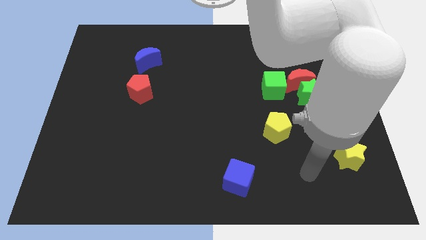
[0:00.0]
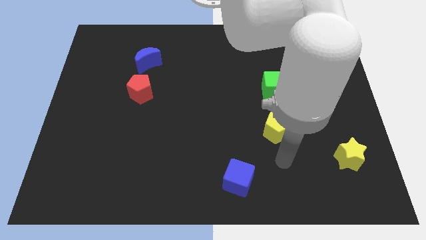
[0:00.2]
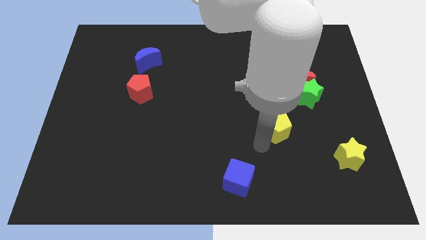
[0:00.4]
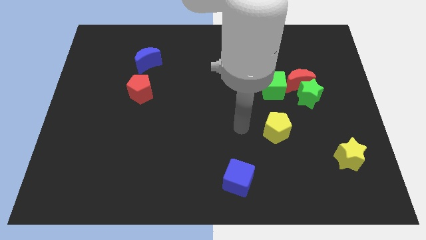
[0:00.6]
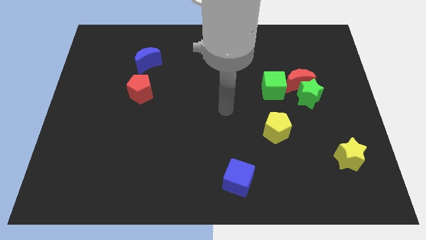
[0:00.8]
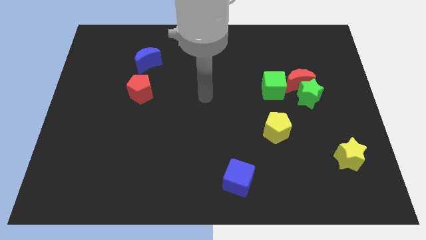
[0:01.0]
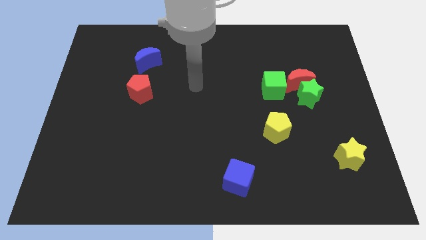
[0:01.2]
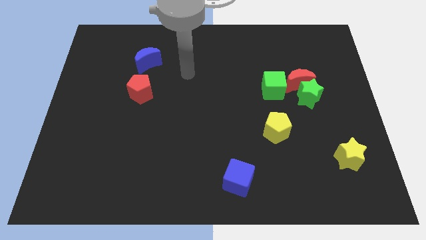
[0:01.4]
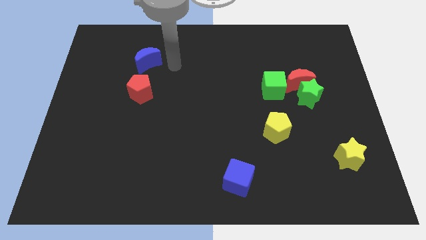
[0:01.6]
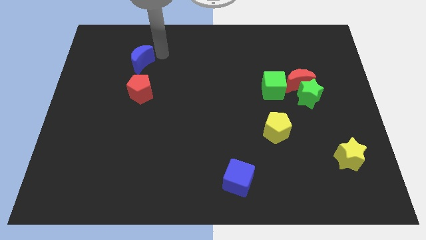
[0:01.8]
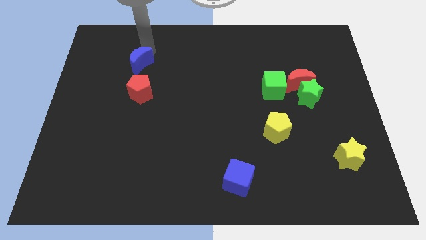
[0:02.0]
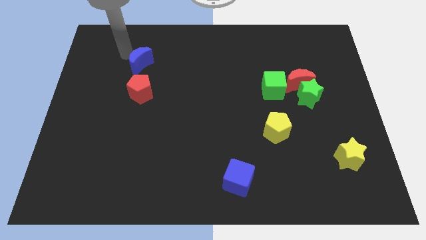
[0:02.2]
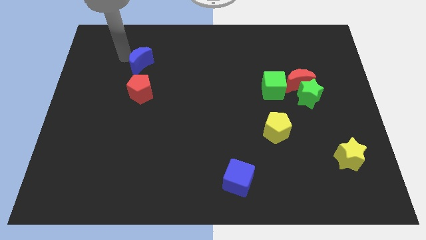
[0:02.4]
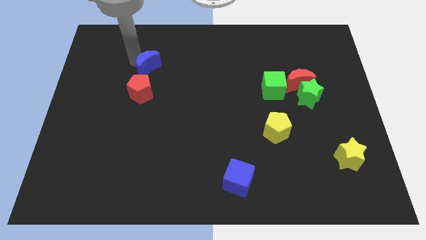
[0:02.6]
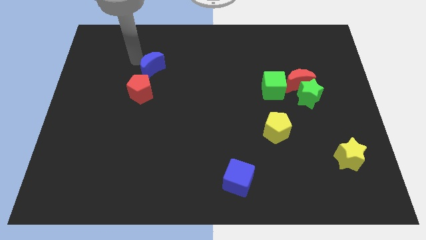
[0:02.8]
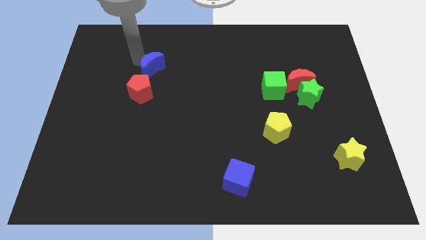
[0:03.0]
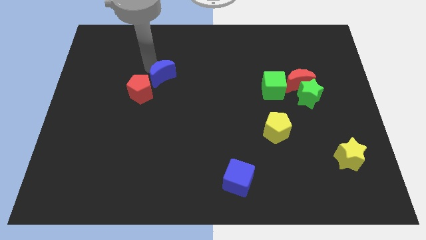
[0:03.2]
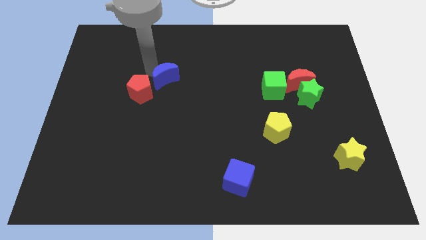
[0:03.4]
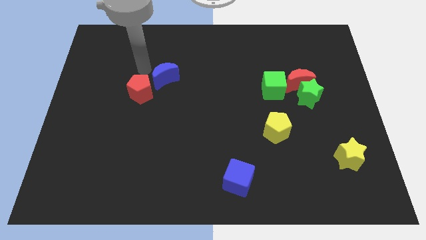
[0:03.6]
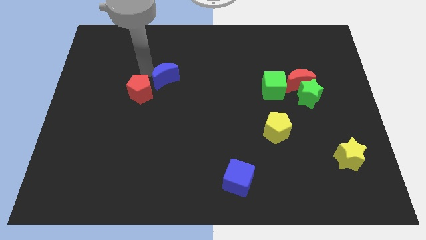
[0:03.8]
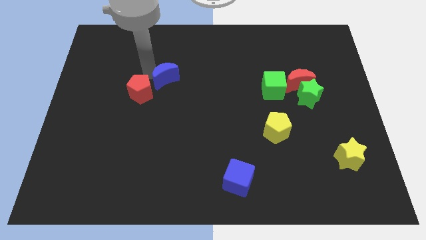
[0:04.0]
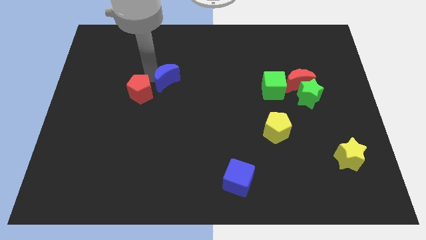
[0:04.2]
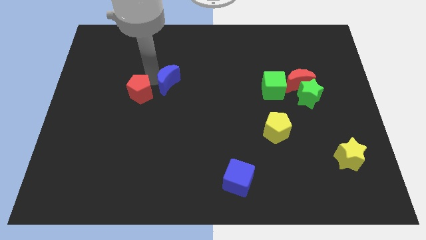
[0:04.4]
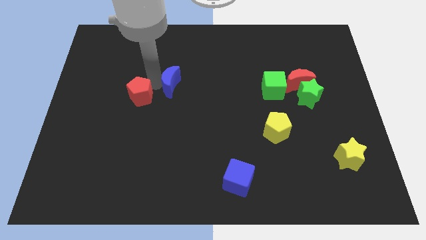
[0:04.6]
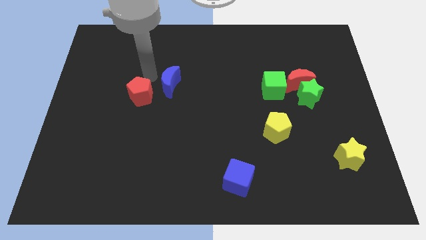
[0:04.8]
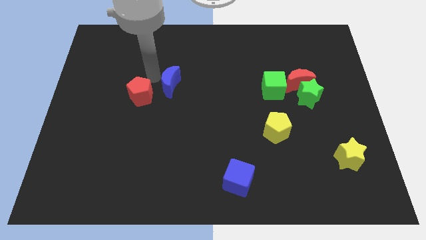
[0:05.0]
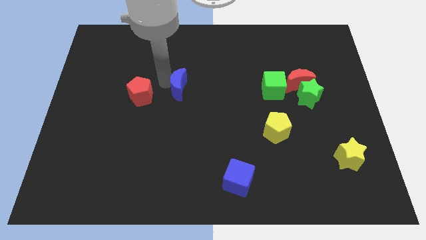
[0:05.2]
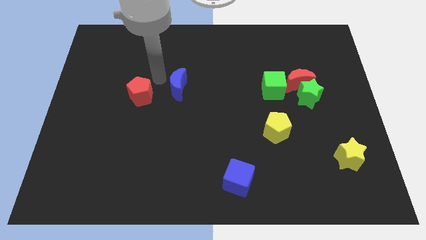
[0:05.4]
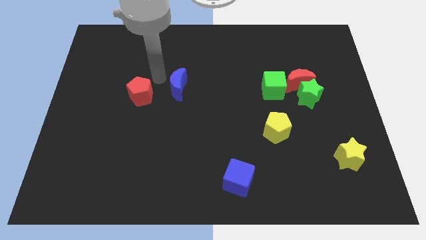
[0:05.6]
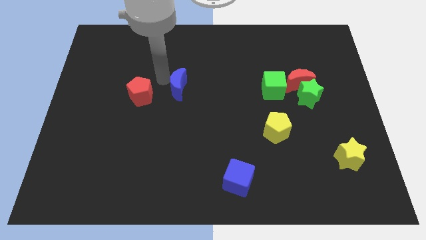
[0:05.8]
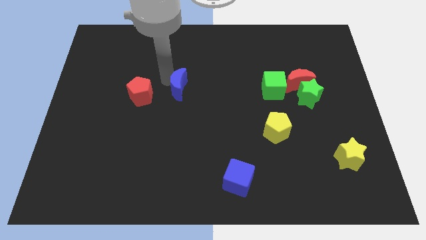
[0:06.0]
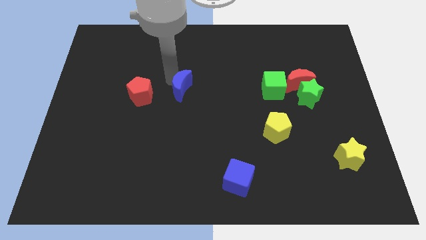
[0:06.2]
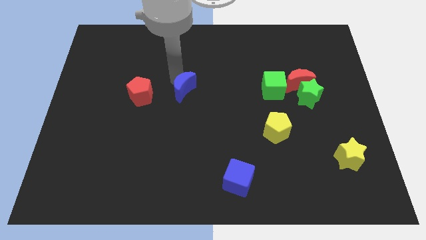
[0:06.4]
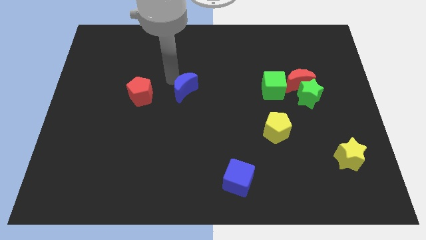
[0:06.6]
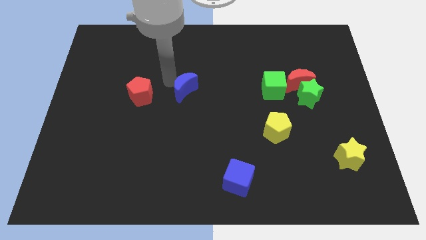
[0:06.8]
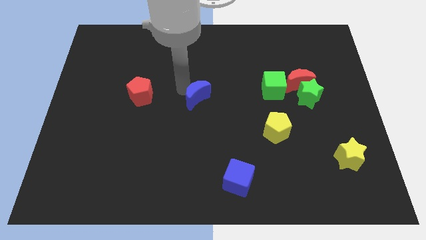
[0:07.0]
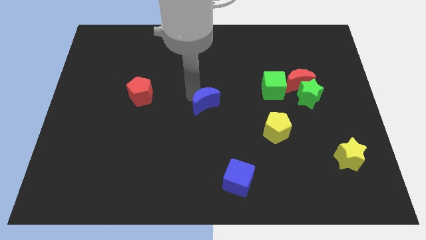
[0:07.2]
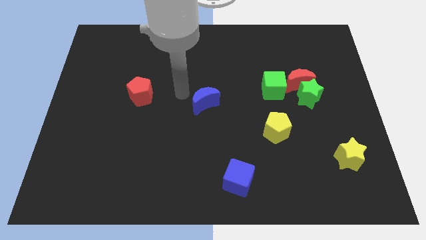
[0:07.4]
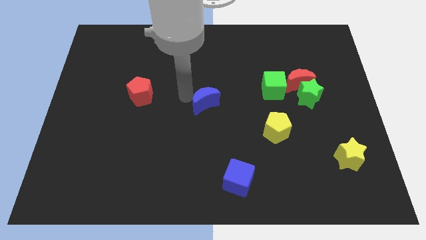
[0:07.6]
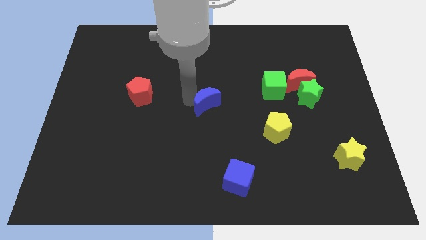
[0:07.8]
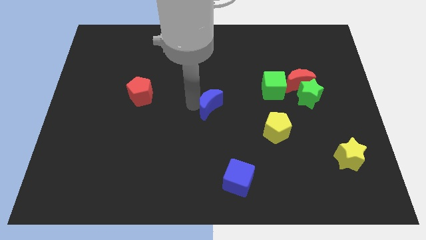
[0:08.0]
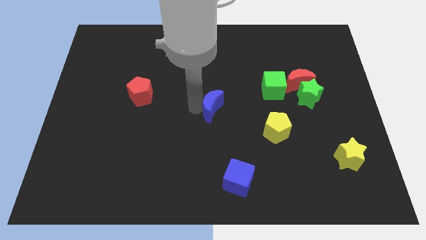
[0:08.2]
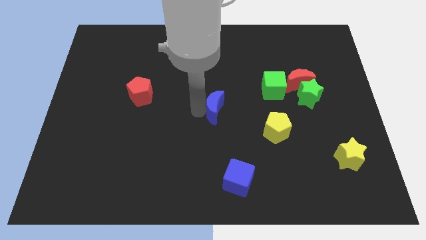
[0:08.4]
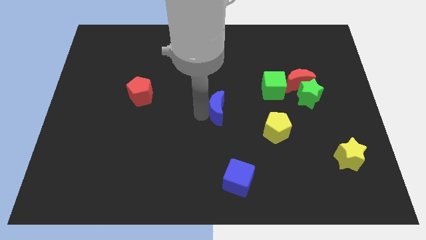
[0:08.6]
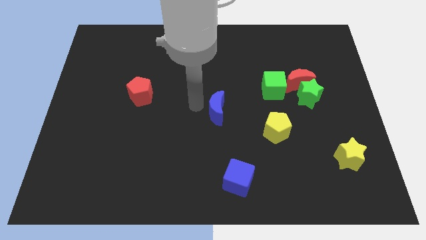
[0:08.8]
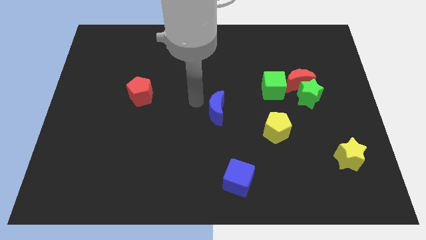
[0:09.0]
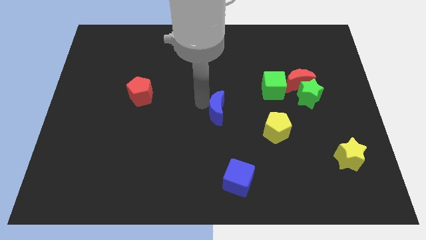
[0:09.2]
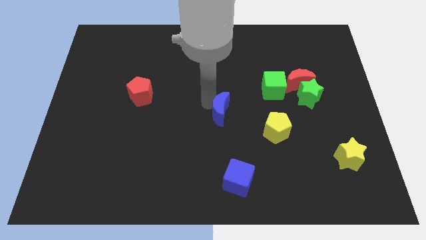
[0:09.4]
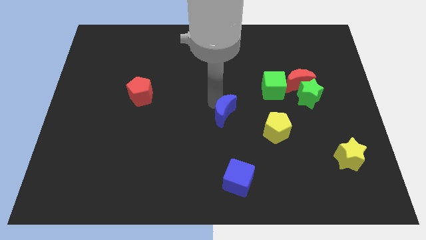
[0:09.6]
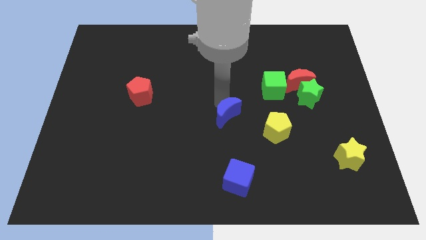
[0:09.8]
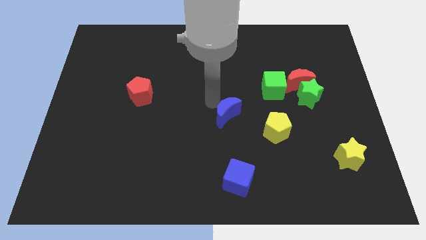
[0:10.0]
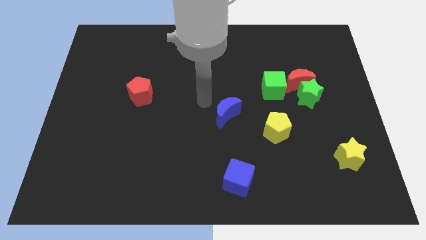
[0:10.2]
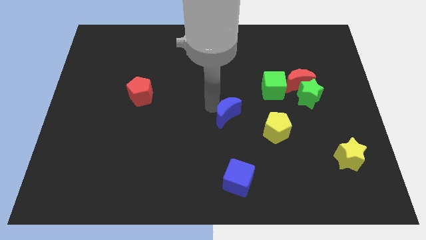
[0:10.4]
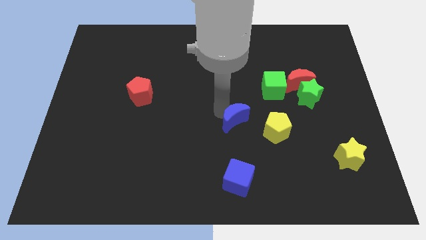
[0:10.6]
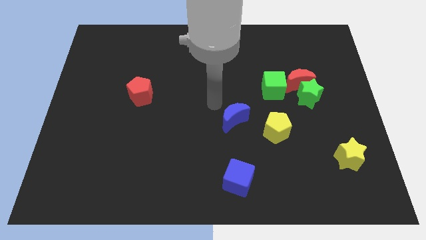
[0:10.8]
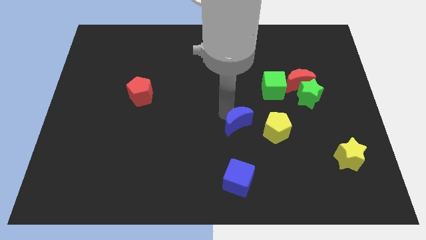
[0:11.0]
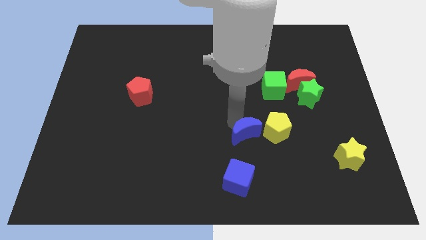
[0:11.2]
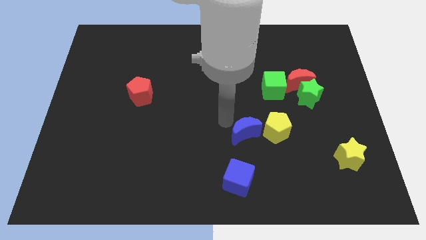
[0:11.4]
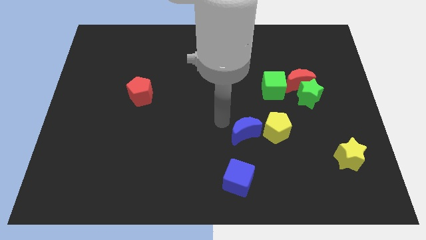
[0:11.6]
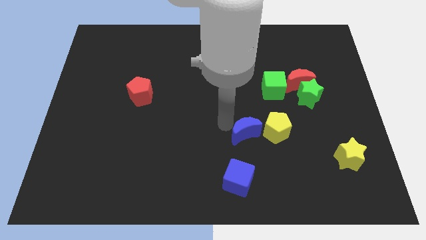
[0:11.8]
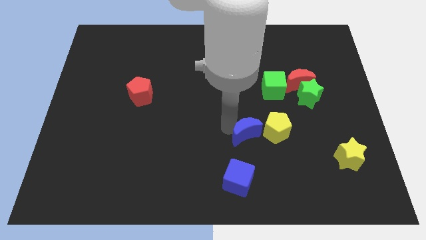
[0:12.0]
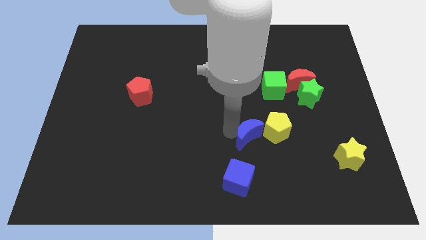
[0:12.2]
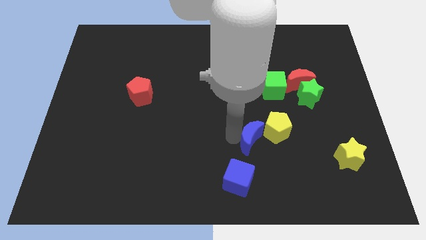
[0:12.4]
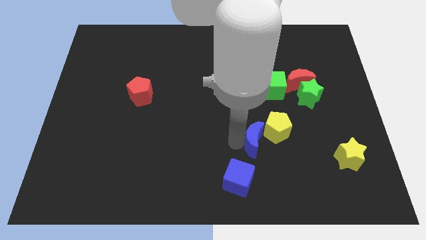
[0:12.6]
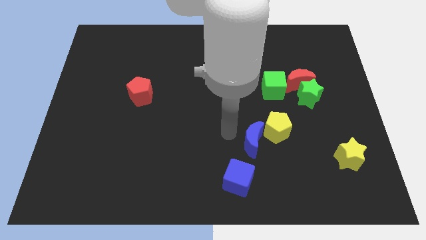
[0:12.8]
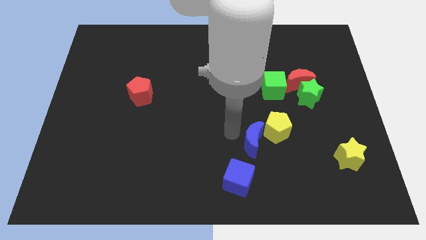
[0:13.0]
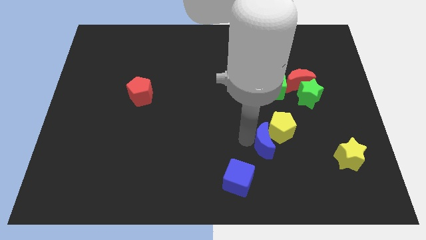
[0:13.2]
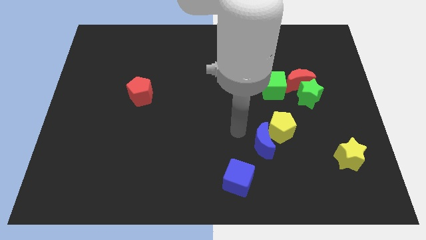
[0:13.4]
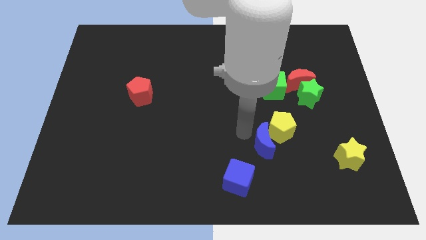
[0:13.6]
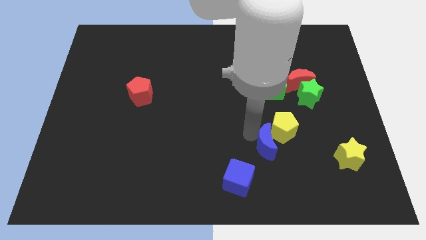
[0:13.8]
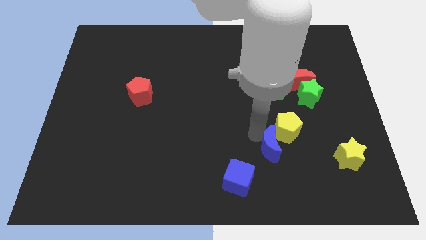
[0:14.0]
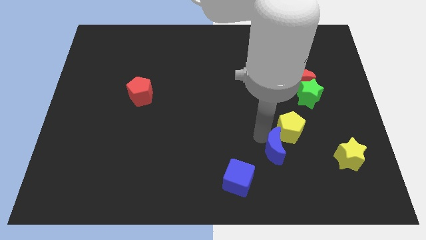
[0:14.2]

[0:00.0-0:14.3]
put the blue moon just left of the yellow star
